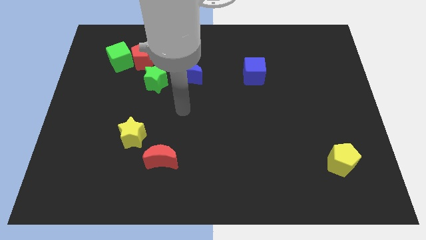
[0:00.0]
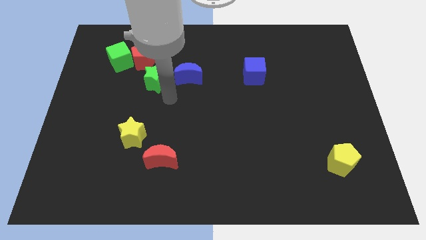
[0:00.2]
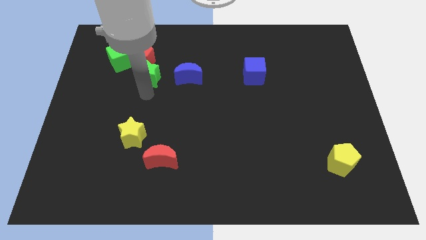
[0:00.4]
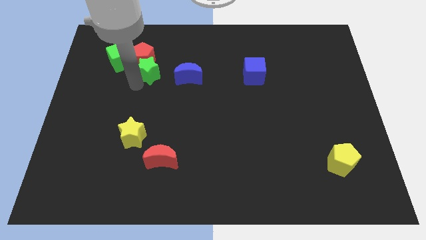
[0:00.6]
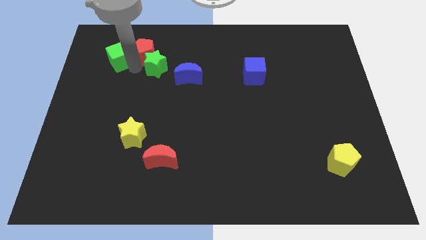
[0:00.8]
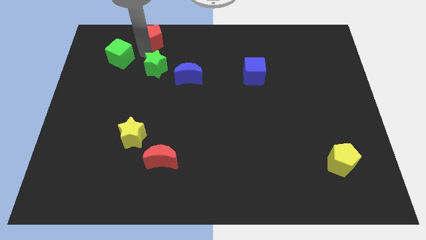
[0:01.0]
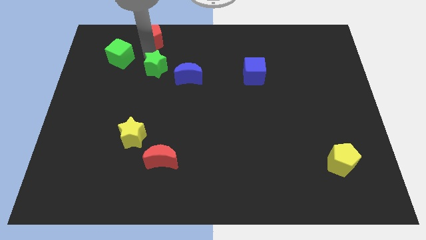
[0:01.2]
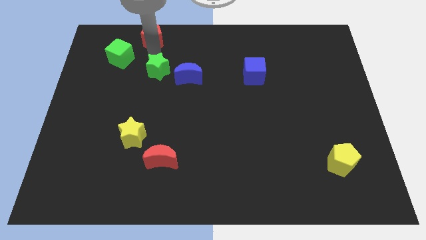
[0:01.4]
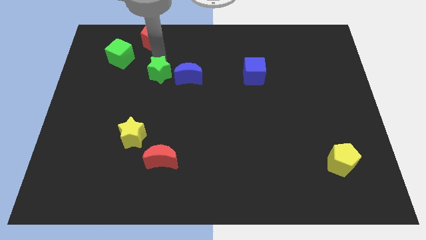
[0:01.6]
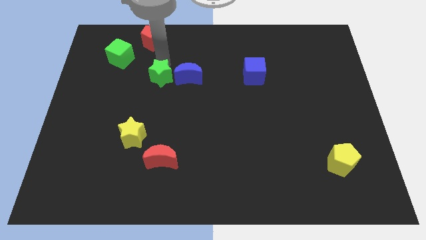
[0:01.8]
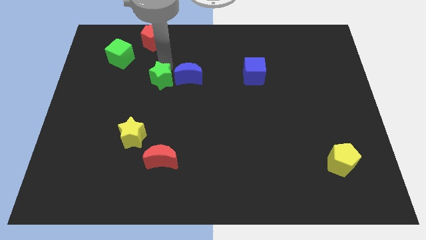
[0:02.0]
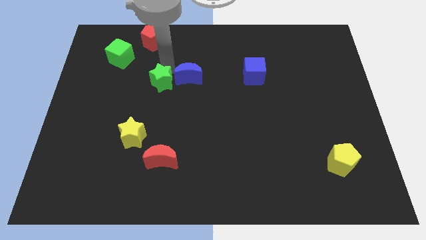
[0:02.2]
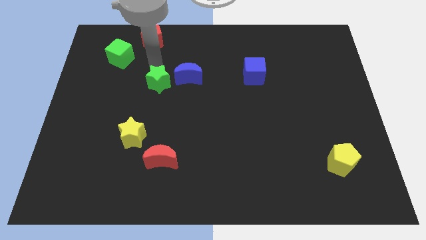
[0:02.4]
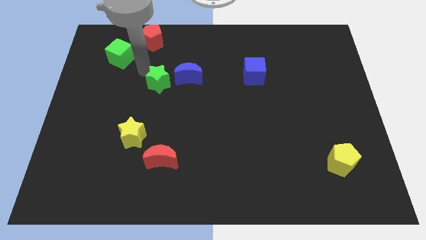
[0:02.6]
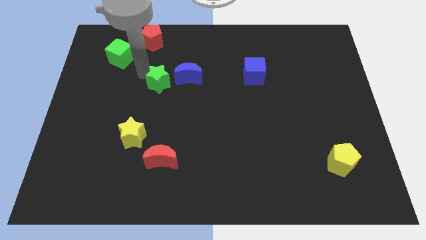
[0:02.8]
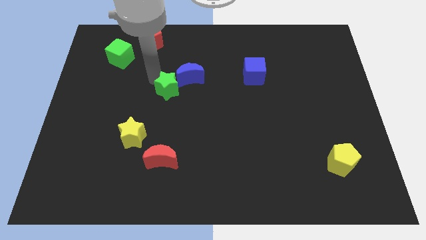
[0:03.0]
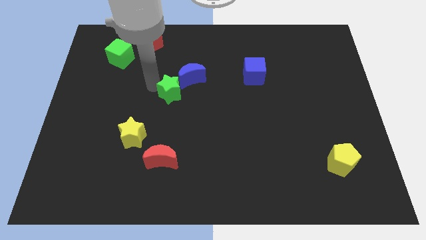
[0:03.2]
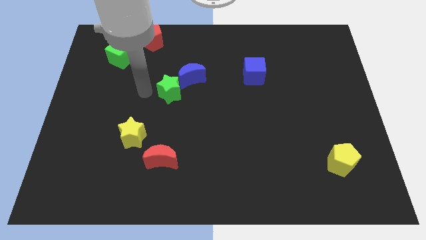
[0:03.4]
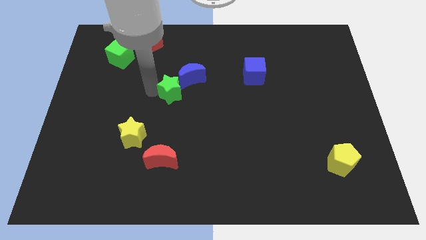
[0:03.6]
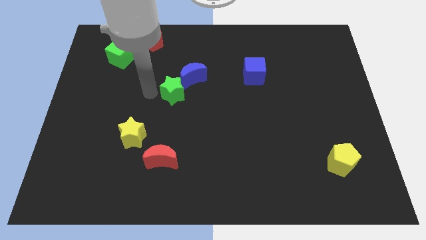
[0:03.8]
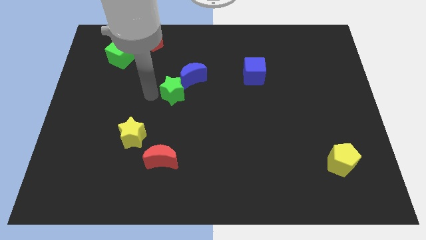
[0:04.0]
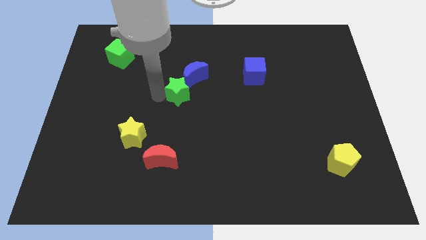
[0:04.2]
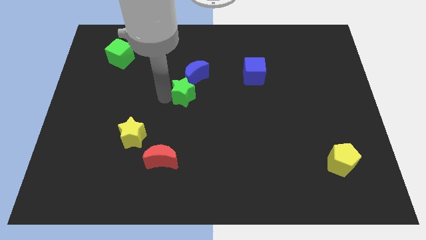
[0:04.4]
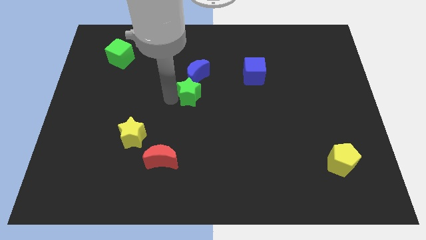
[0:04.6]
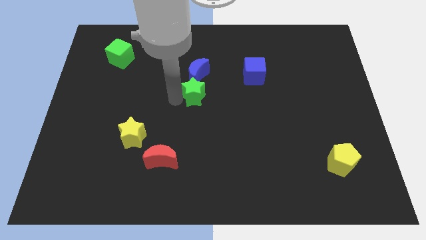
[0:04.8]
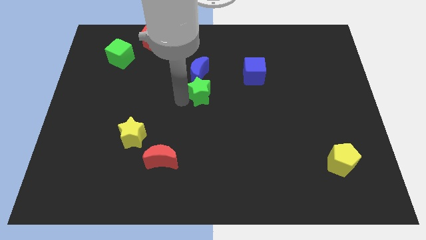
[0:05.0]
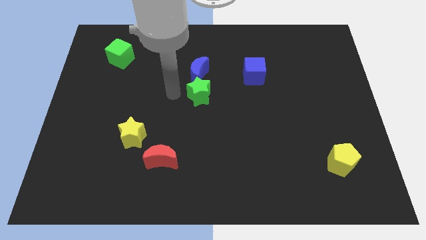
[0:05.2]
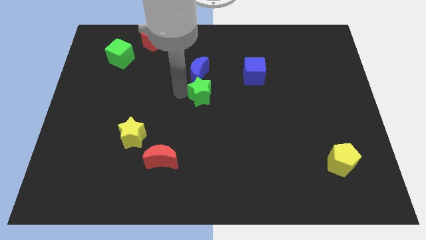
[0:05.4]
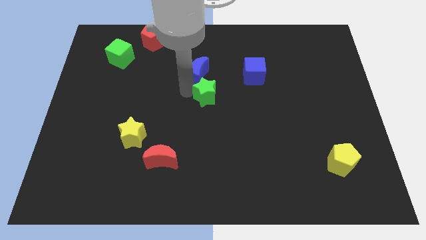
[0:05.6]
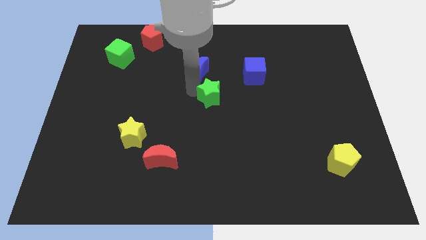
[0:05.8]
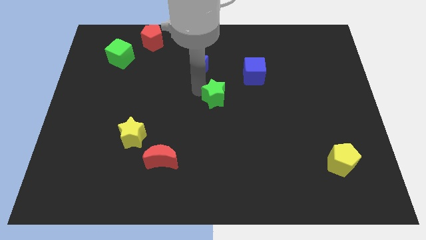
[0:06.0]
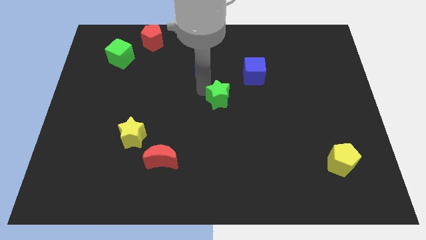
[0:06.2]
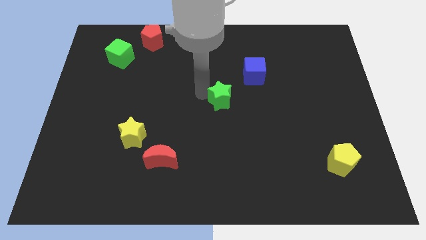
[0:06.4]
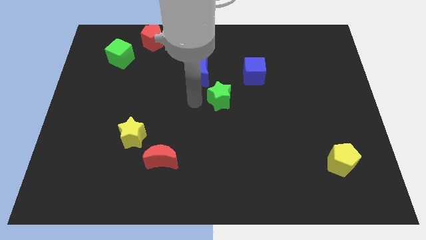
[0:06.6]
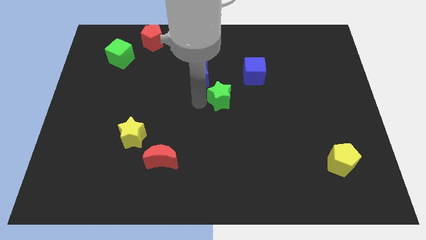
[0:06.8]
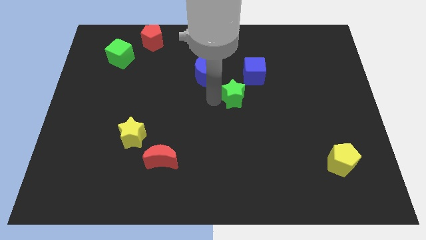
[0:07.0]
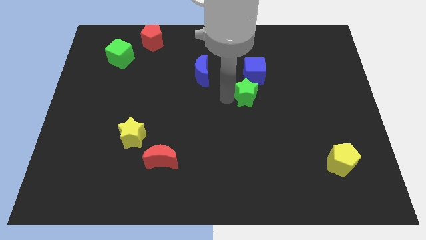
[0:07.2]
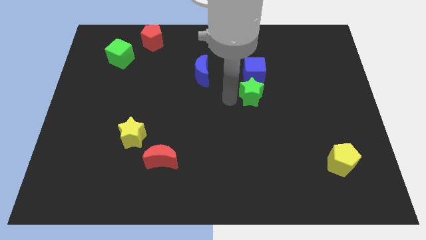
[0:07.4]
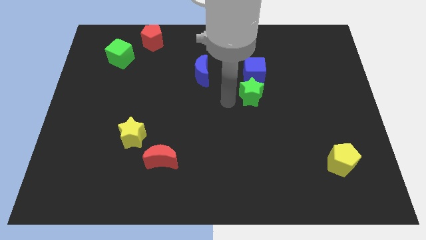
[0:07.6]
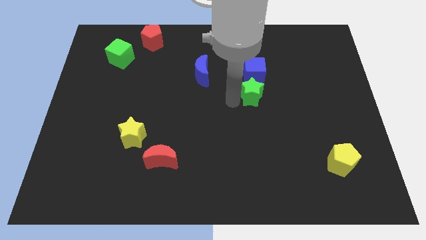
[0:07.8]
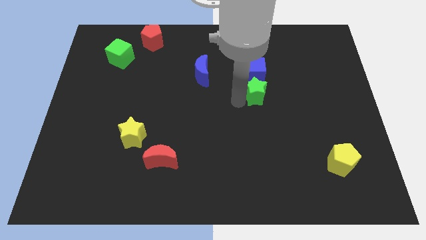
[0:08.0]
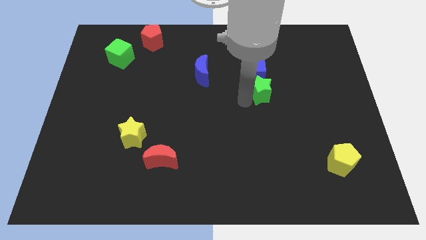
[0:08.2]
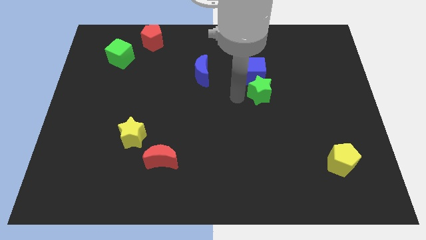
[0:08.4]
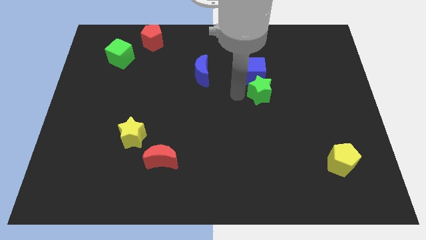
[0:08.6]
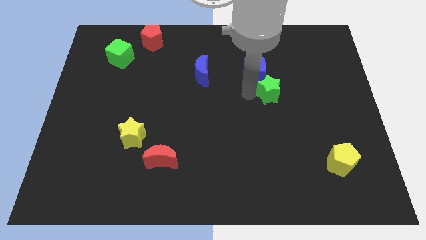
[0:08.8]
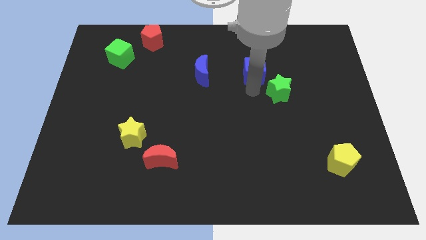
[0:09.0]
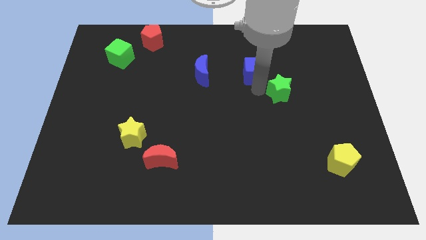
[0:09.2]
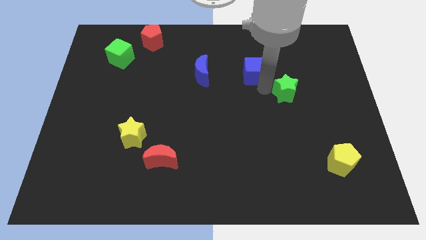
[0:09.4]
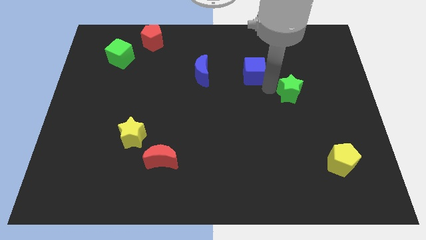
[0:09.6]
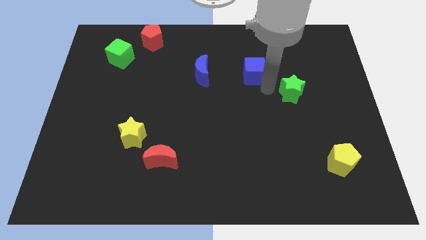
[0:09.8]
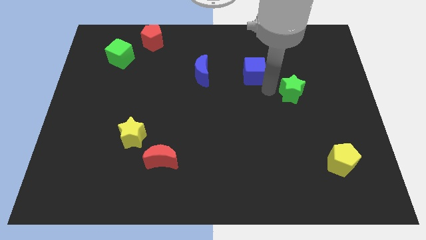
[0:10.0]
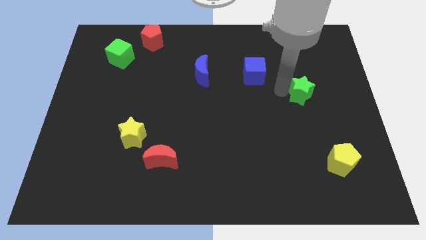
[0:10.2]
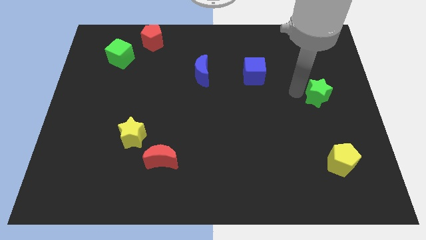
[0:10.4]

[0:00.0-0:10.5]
put the green star to the center right

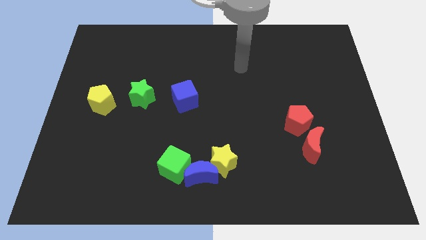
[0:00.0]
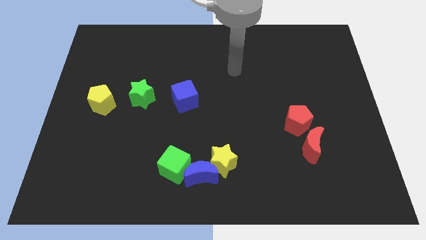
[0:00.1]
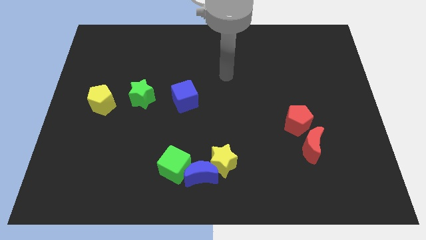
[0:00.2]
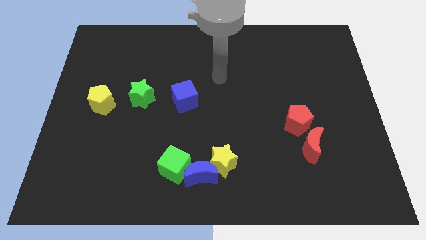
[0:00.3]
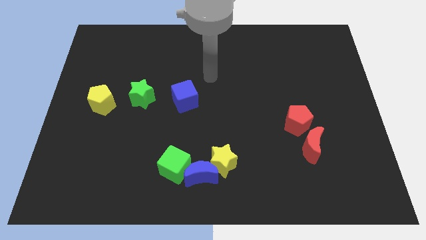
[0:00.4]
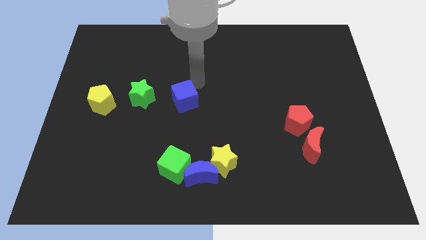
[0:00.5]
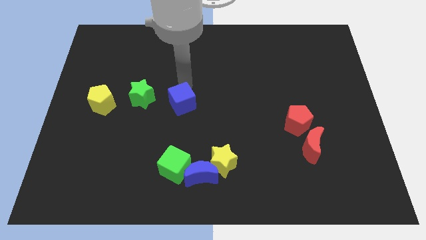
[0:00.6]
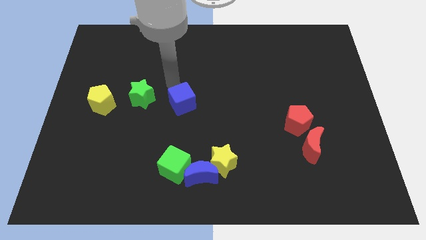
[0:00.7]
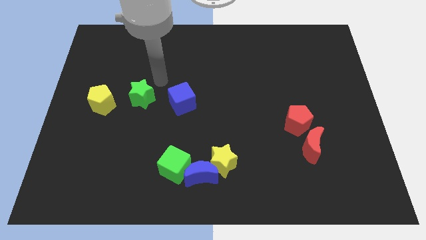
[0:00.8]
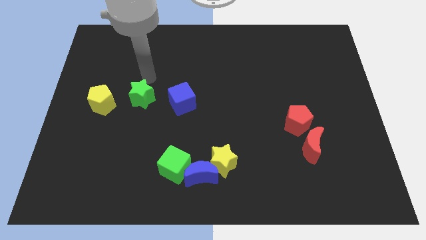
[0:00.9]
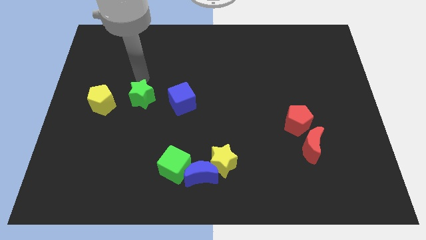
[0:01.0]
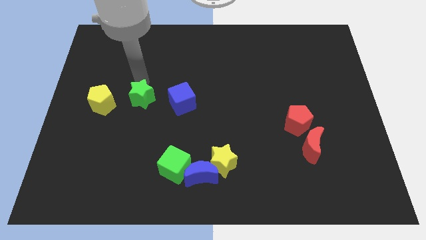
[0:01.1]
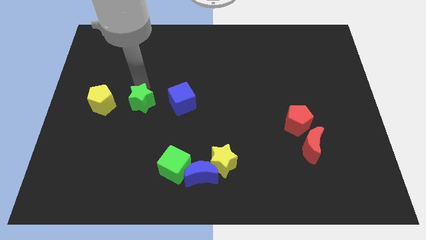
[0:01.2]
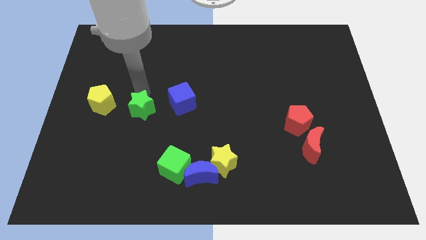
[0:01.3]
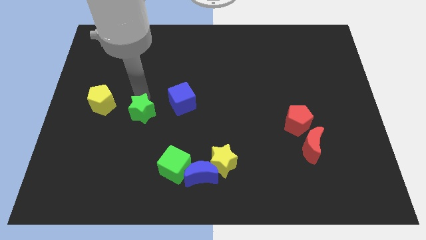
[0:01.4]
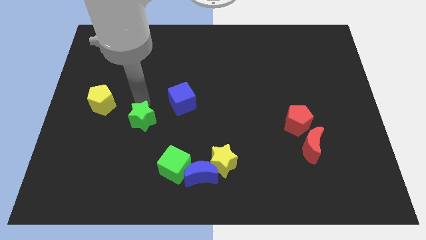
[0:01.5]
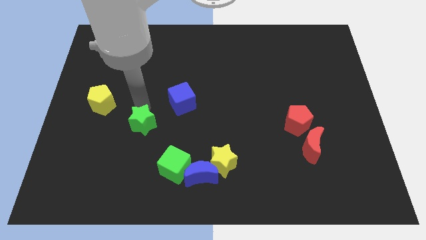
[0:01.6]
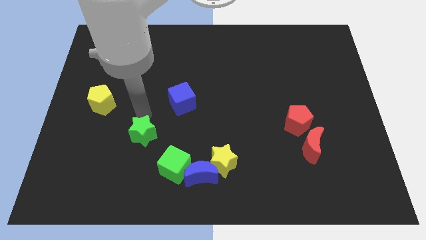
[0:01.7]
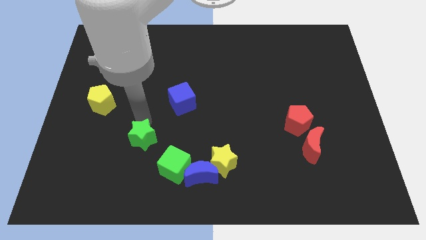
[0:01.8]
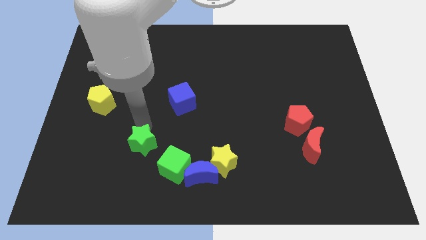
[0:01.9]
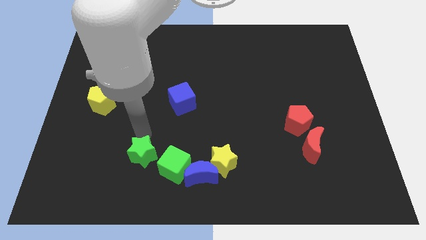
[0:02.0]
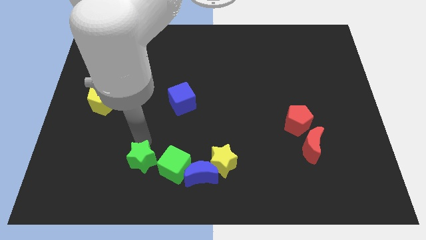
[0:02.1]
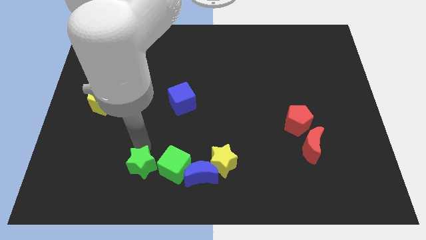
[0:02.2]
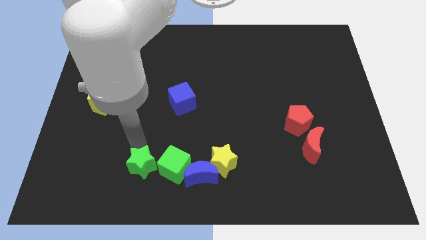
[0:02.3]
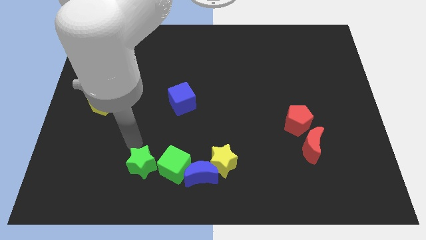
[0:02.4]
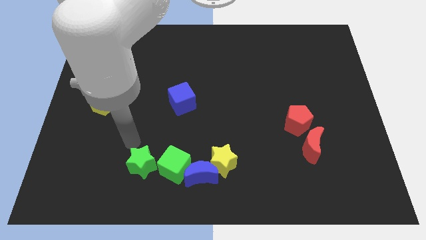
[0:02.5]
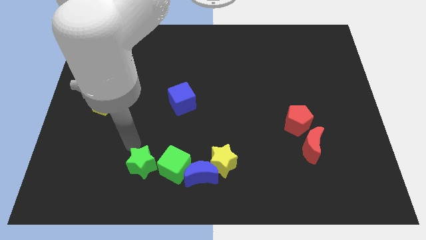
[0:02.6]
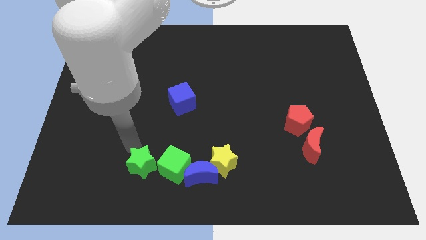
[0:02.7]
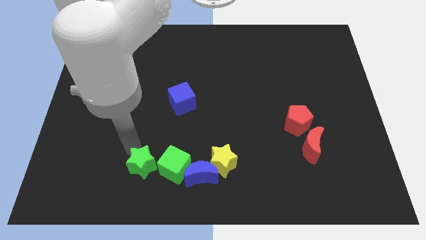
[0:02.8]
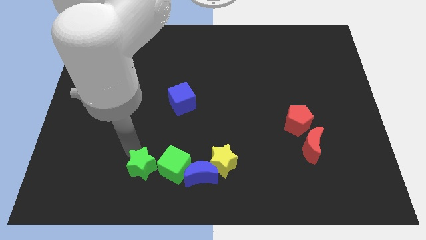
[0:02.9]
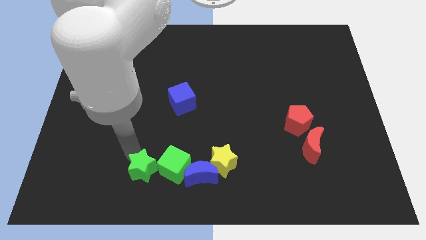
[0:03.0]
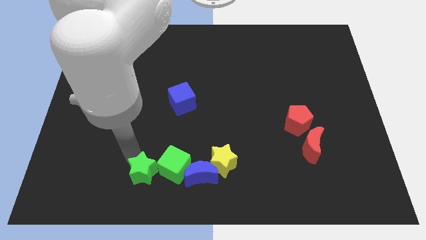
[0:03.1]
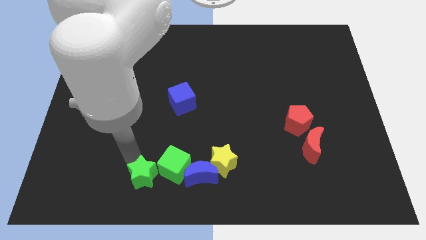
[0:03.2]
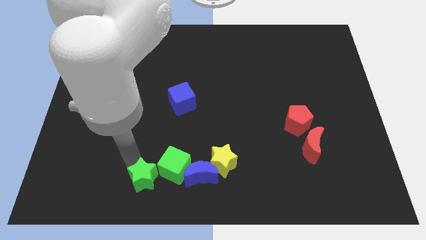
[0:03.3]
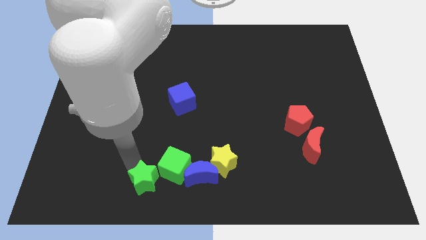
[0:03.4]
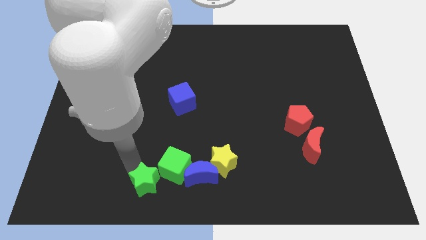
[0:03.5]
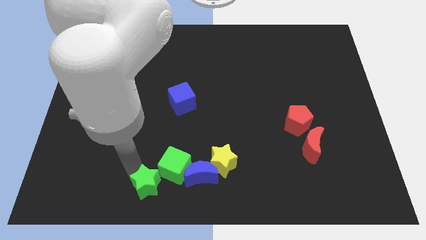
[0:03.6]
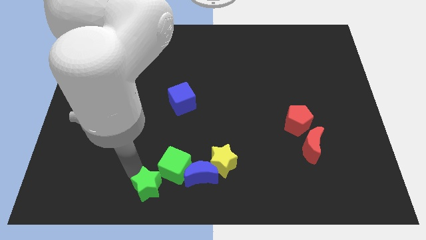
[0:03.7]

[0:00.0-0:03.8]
put the green star to the bottom
